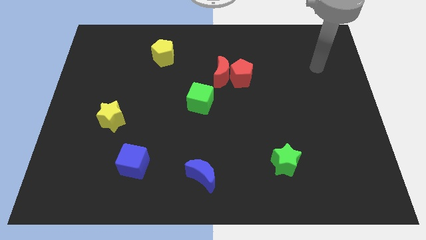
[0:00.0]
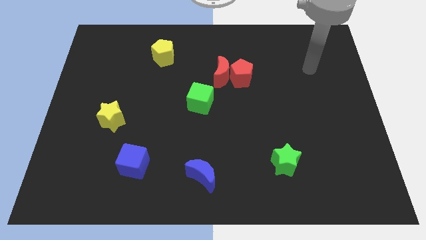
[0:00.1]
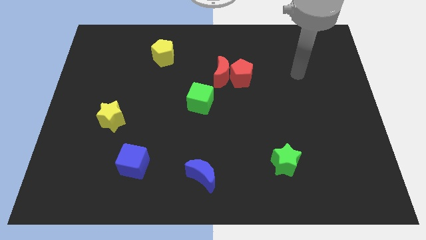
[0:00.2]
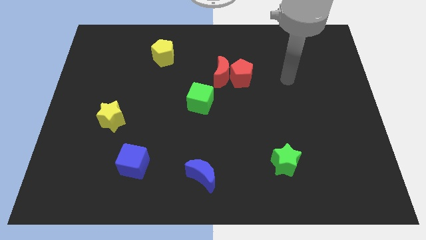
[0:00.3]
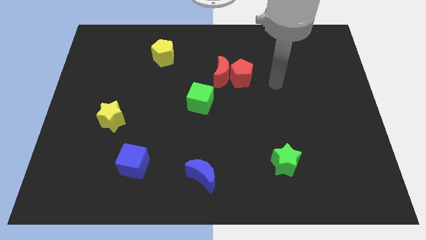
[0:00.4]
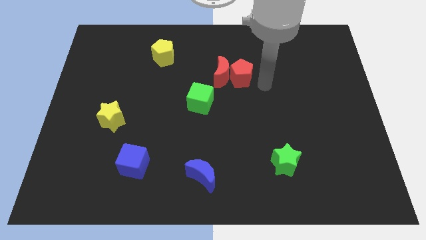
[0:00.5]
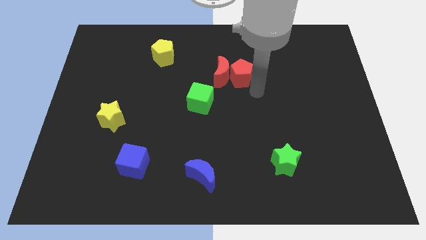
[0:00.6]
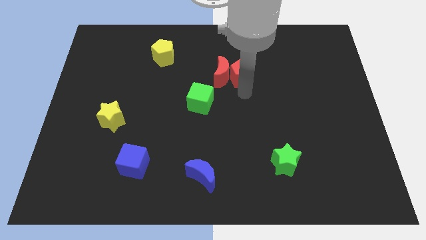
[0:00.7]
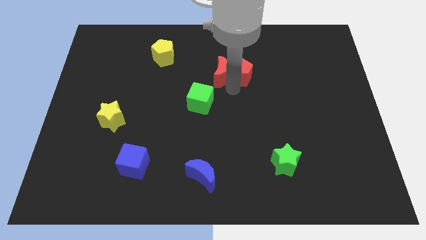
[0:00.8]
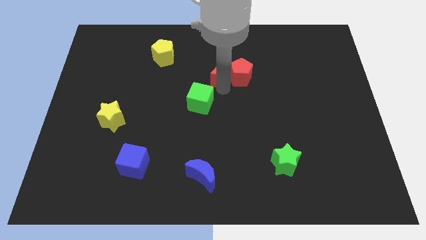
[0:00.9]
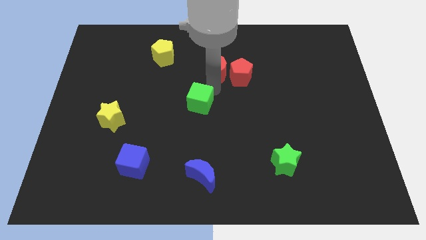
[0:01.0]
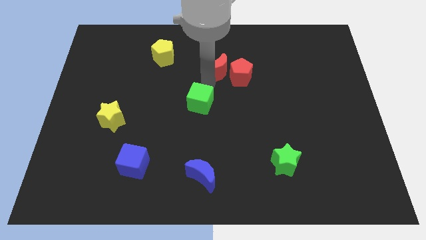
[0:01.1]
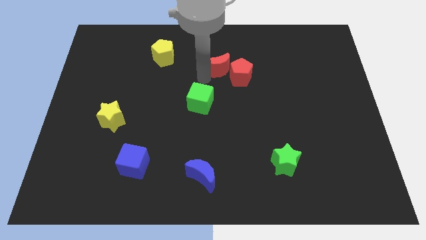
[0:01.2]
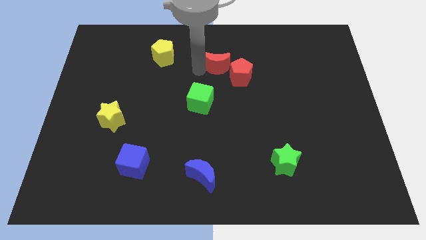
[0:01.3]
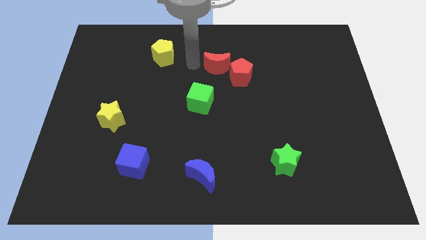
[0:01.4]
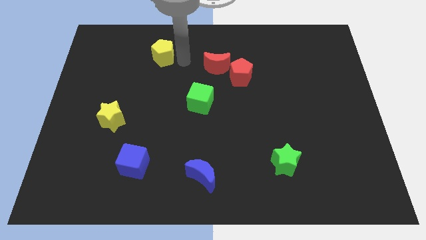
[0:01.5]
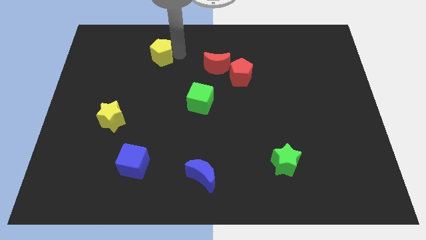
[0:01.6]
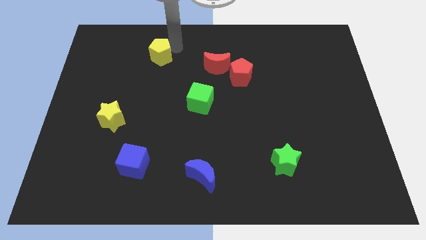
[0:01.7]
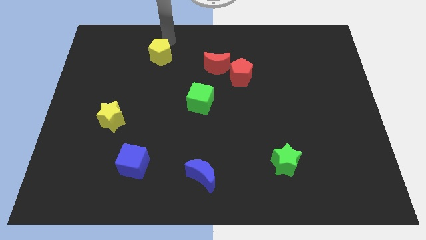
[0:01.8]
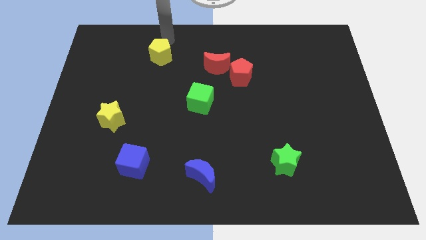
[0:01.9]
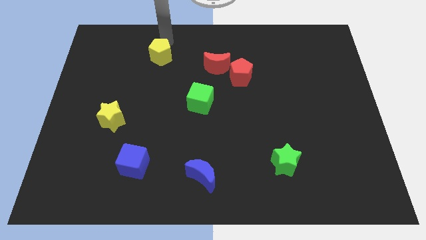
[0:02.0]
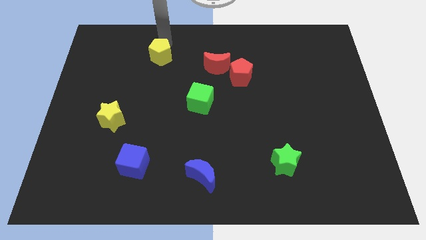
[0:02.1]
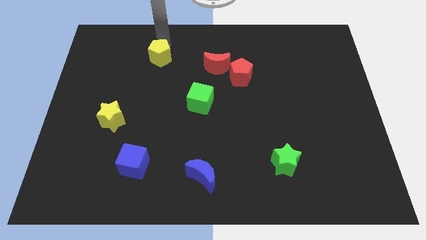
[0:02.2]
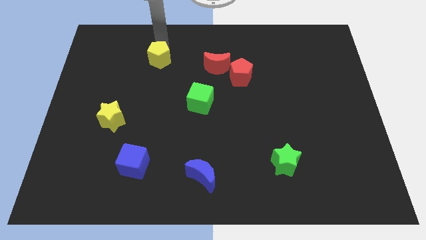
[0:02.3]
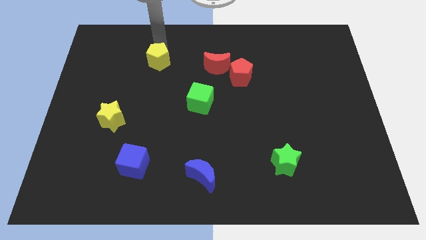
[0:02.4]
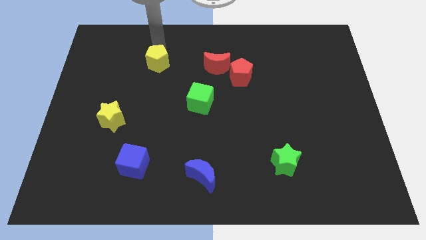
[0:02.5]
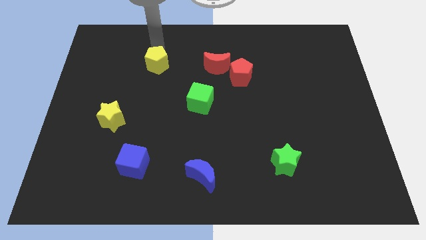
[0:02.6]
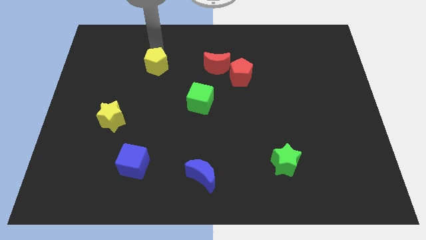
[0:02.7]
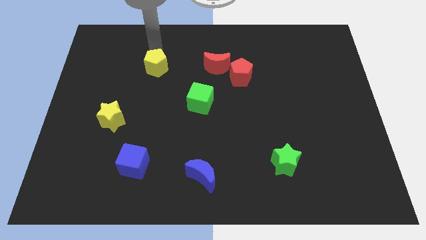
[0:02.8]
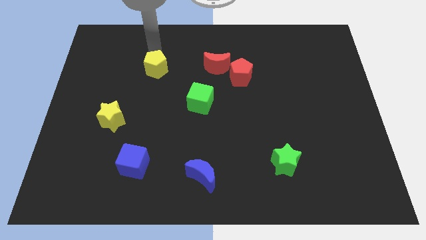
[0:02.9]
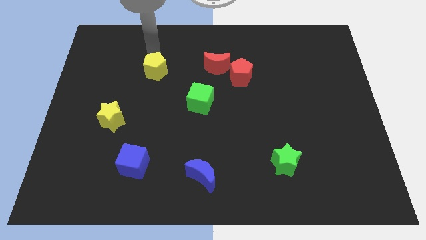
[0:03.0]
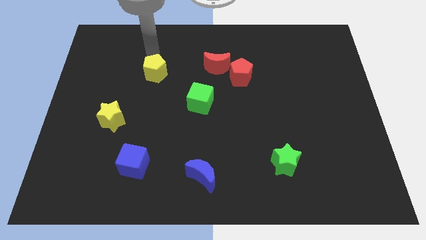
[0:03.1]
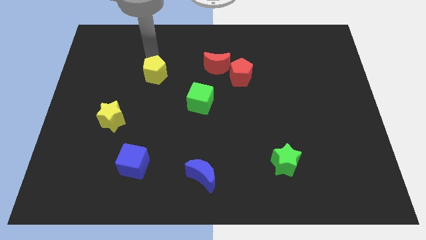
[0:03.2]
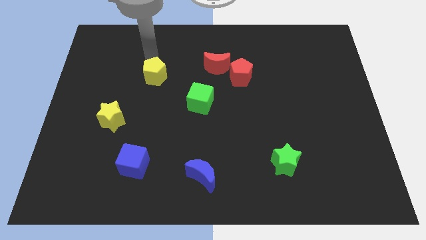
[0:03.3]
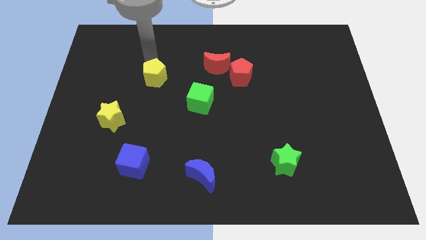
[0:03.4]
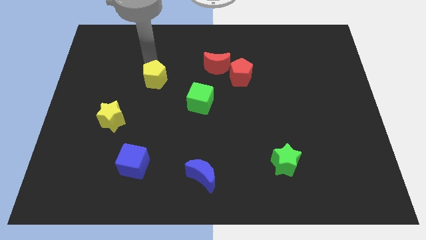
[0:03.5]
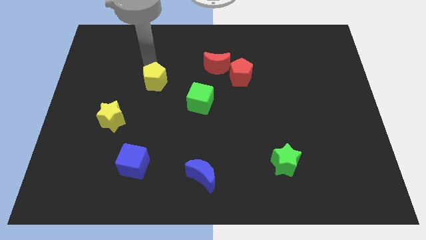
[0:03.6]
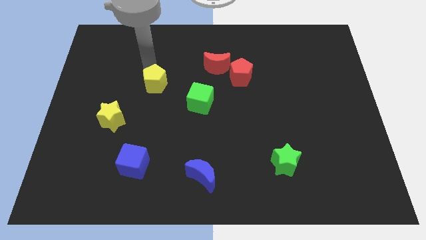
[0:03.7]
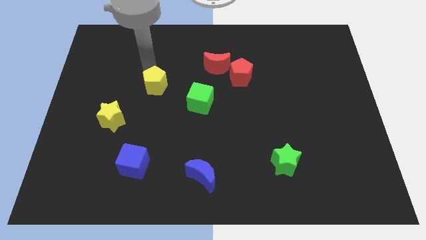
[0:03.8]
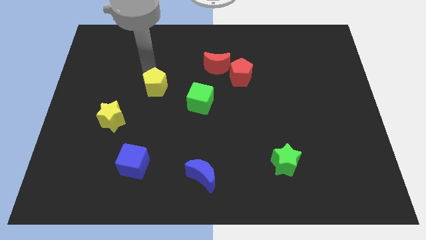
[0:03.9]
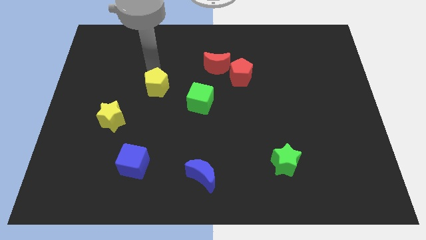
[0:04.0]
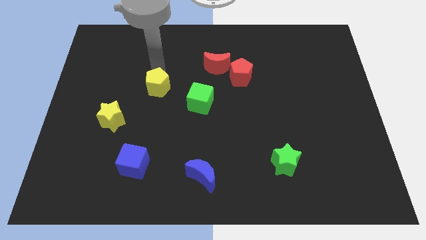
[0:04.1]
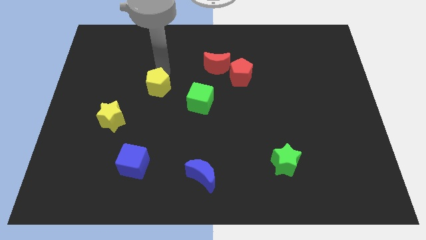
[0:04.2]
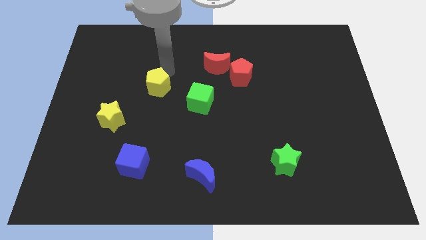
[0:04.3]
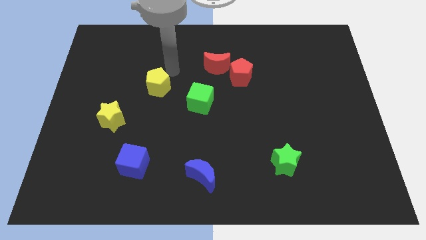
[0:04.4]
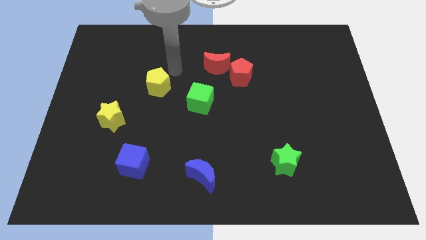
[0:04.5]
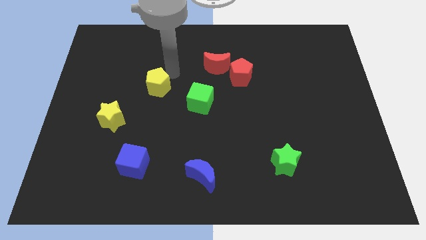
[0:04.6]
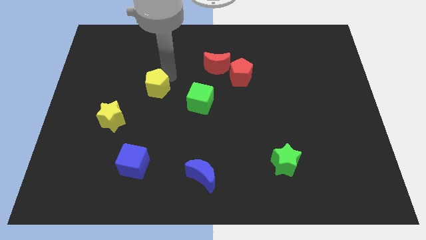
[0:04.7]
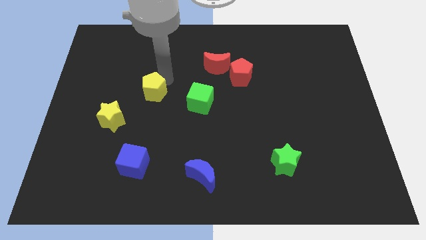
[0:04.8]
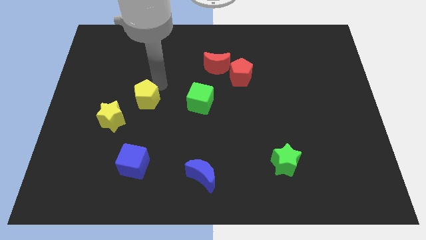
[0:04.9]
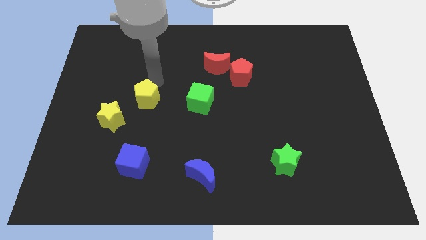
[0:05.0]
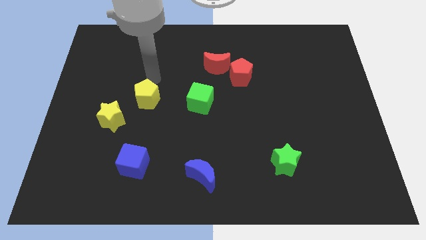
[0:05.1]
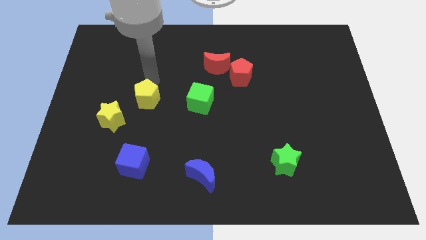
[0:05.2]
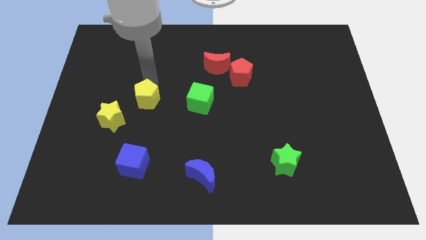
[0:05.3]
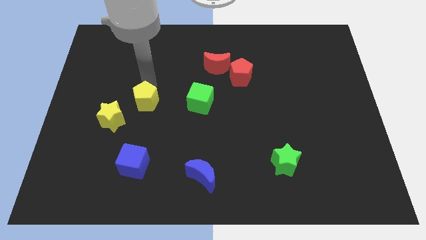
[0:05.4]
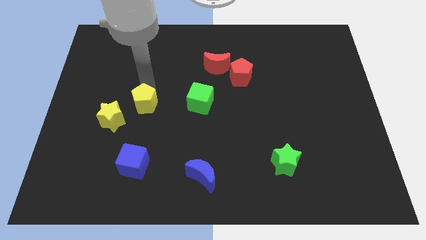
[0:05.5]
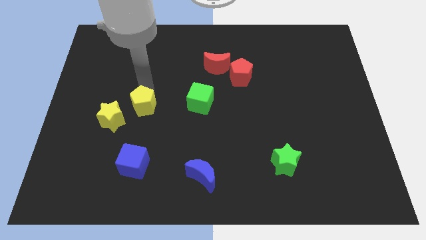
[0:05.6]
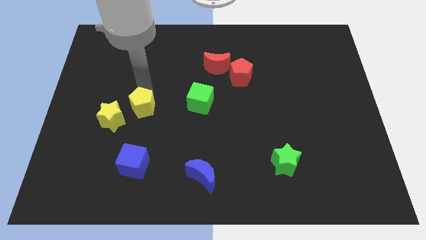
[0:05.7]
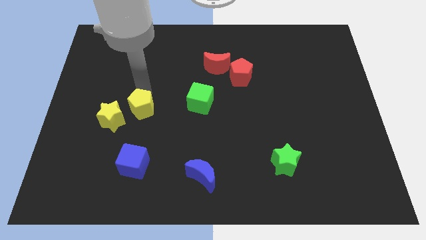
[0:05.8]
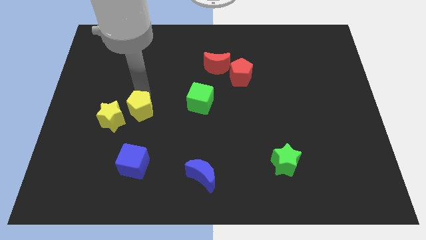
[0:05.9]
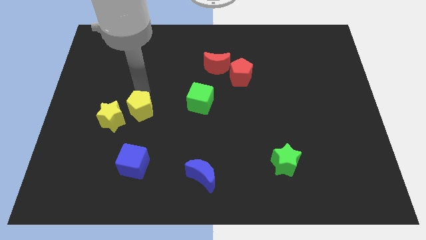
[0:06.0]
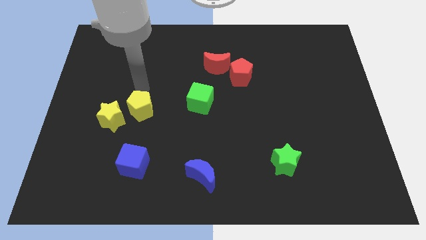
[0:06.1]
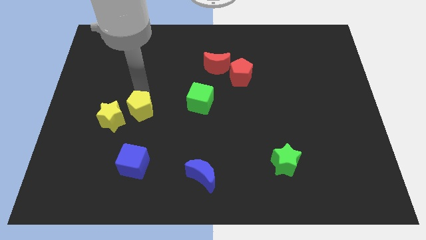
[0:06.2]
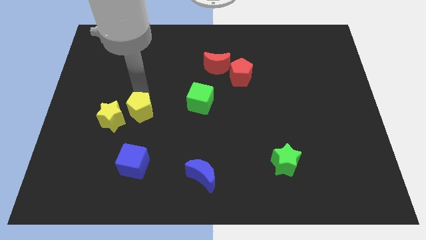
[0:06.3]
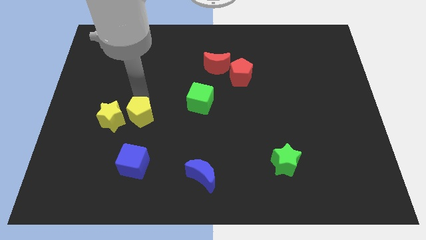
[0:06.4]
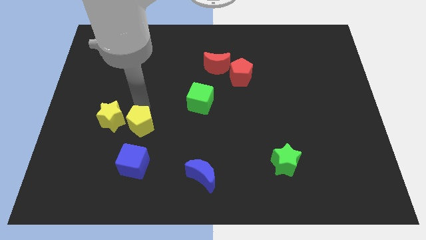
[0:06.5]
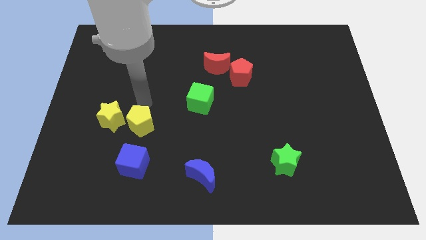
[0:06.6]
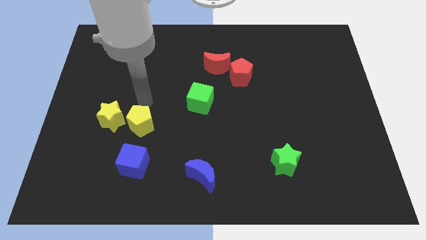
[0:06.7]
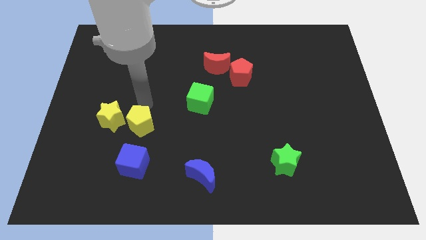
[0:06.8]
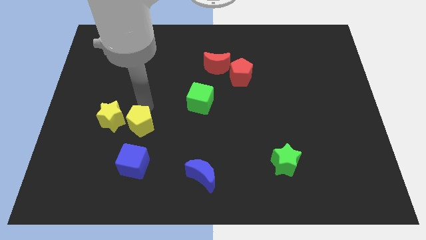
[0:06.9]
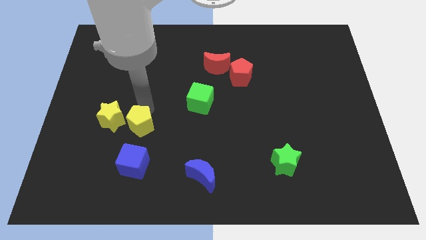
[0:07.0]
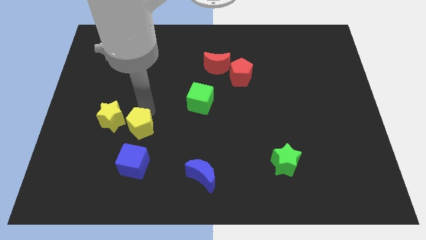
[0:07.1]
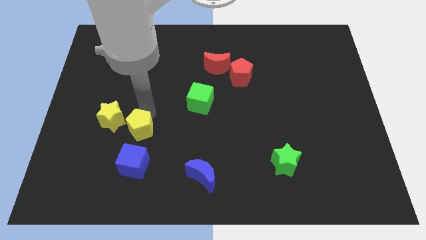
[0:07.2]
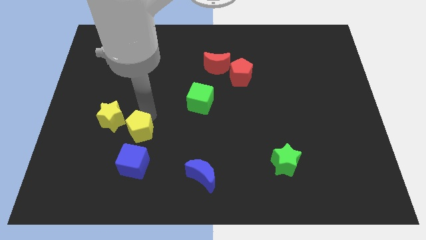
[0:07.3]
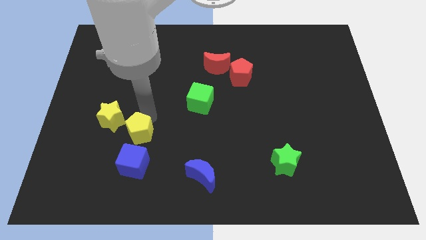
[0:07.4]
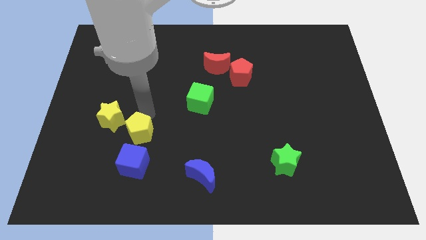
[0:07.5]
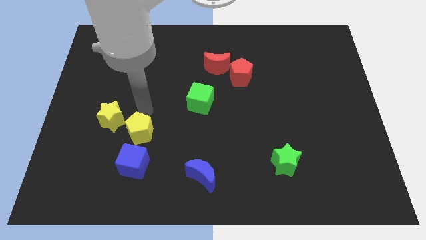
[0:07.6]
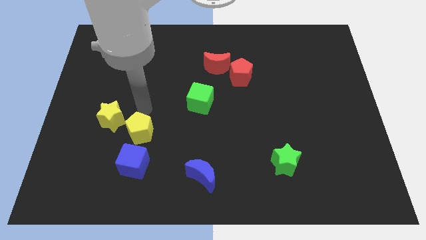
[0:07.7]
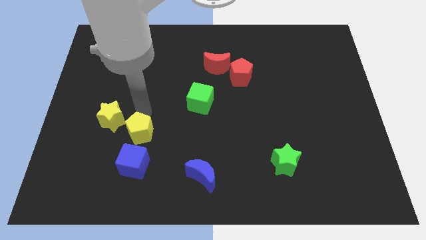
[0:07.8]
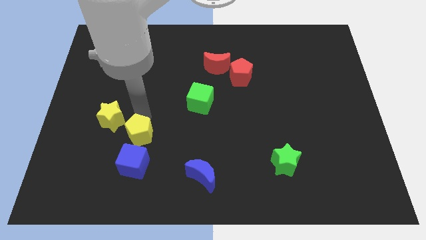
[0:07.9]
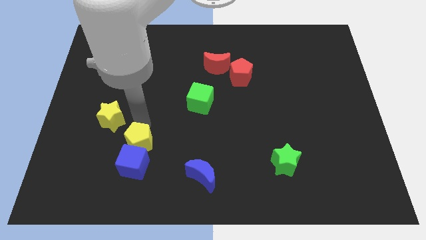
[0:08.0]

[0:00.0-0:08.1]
put the yellow pentagon close to the blue cube
